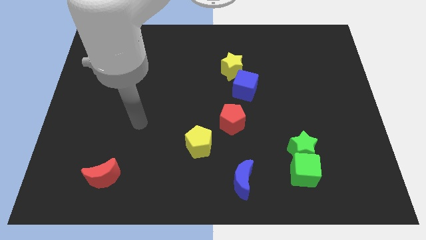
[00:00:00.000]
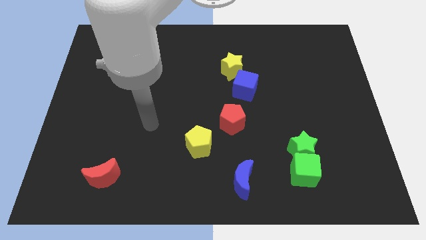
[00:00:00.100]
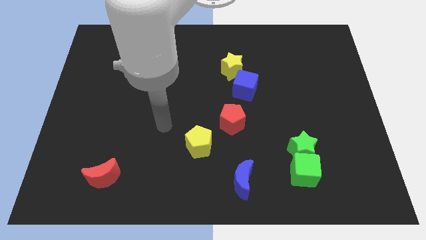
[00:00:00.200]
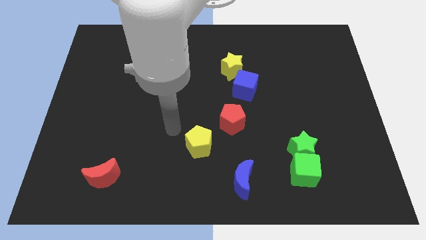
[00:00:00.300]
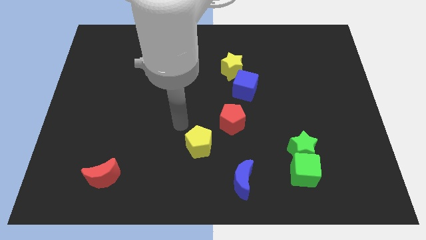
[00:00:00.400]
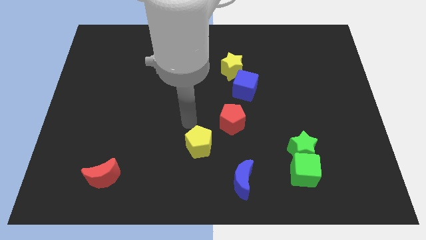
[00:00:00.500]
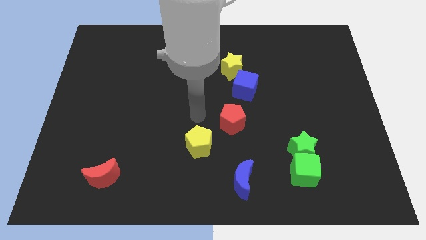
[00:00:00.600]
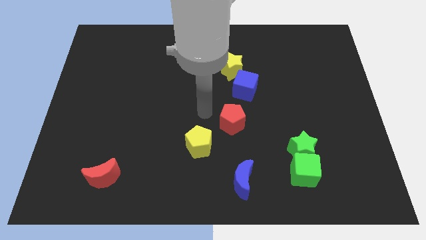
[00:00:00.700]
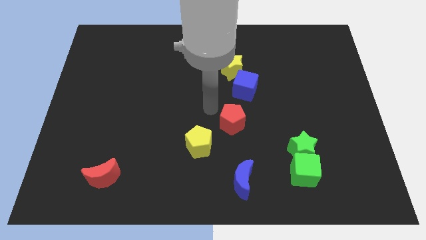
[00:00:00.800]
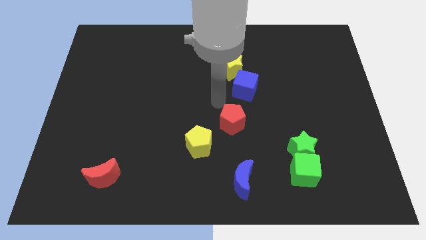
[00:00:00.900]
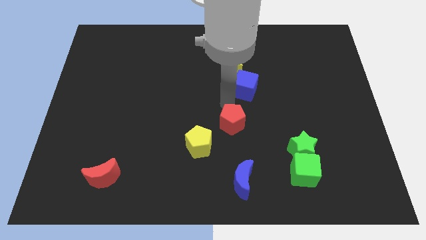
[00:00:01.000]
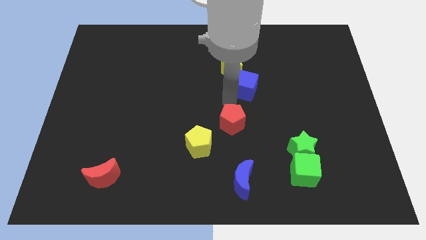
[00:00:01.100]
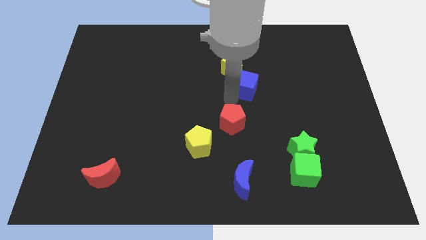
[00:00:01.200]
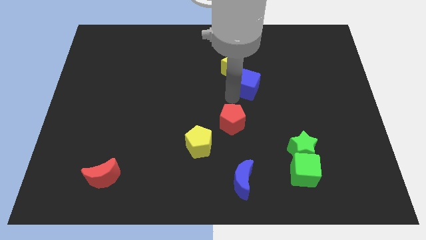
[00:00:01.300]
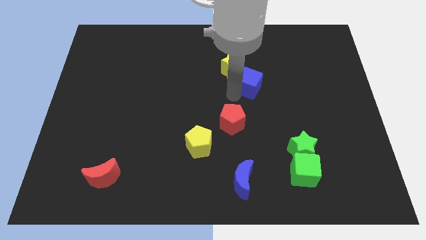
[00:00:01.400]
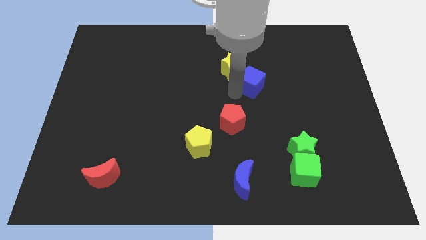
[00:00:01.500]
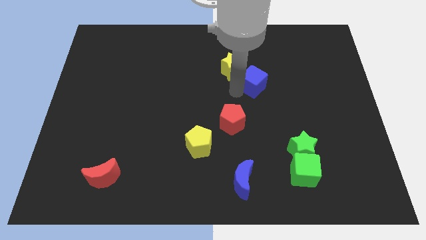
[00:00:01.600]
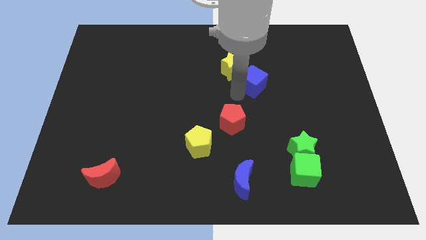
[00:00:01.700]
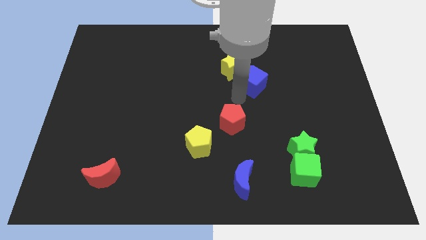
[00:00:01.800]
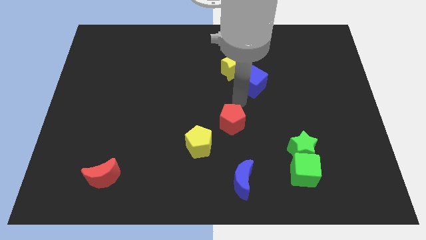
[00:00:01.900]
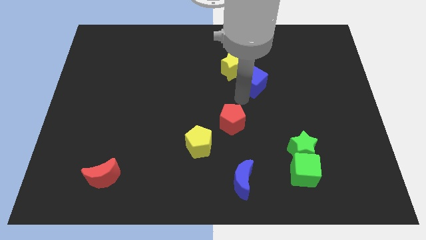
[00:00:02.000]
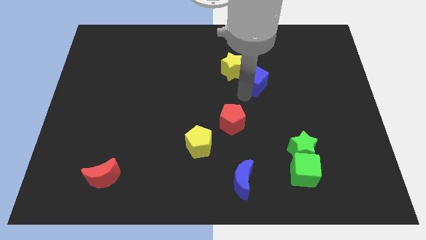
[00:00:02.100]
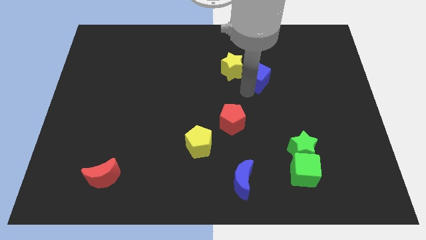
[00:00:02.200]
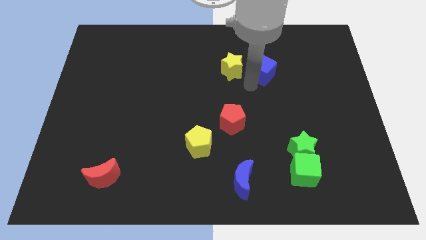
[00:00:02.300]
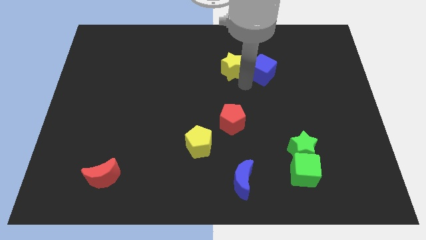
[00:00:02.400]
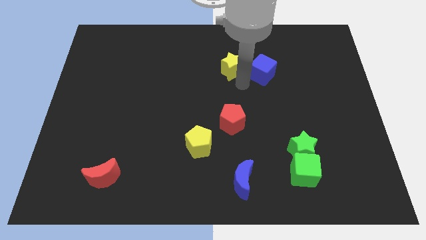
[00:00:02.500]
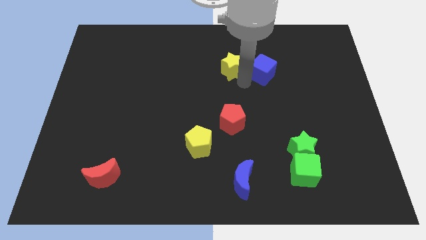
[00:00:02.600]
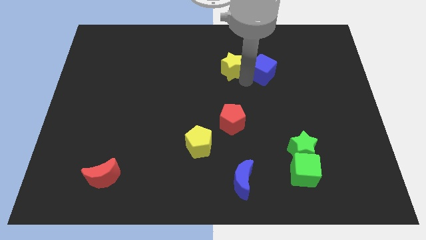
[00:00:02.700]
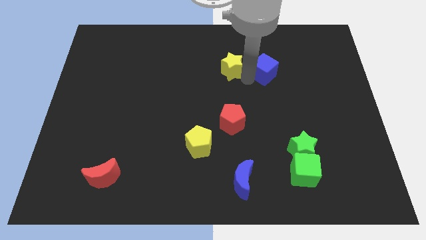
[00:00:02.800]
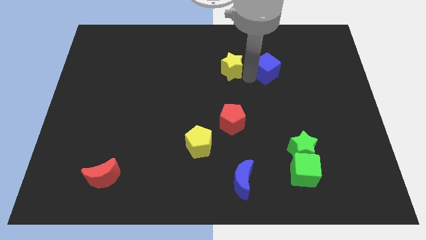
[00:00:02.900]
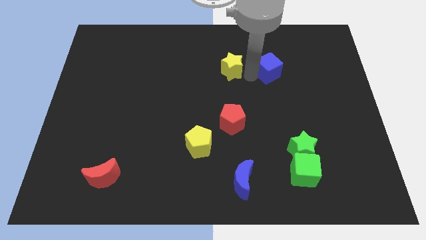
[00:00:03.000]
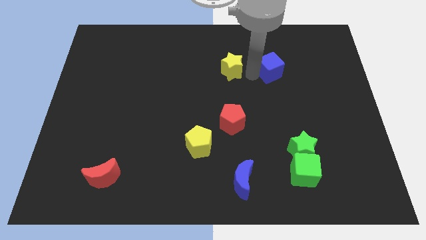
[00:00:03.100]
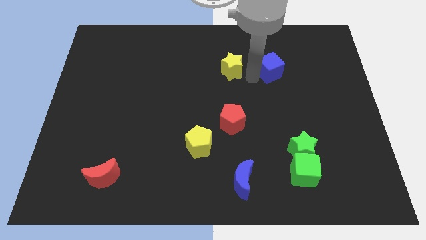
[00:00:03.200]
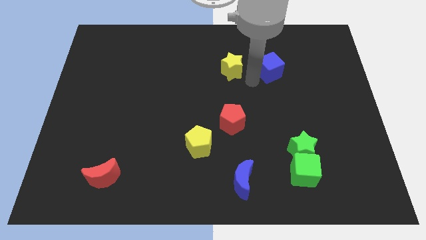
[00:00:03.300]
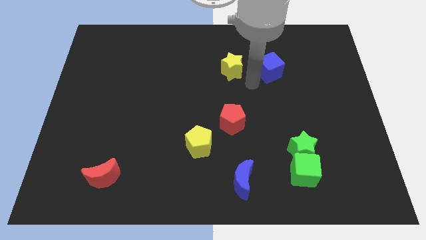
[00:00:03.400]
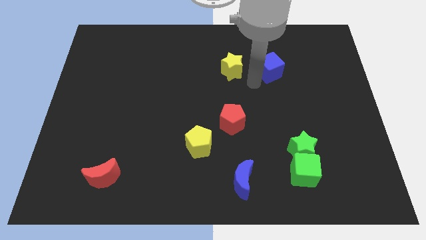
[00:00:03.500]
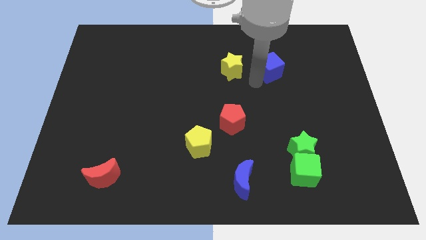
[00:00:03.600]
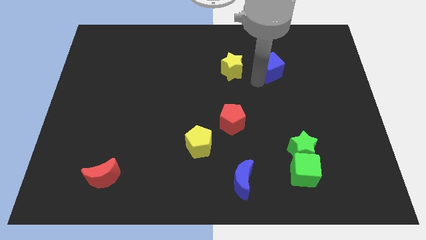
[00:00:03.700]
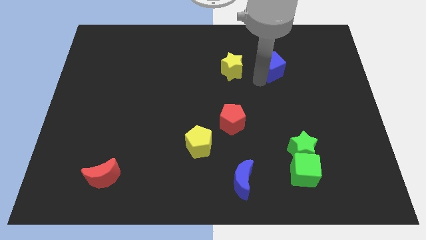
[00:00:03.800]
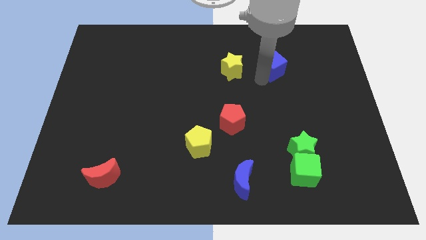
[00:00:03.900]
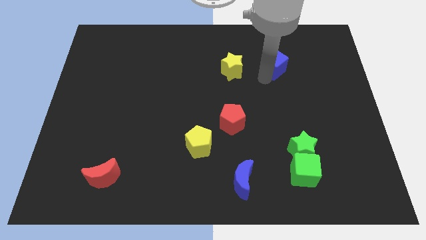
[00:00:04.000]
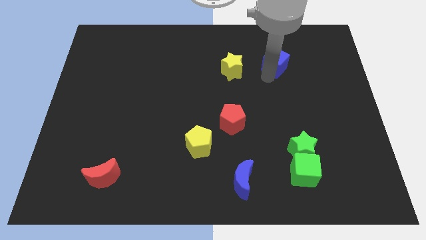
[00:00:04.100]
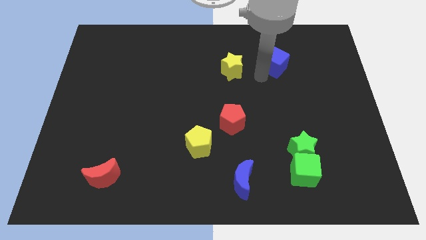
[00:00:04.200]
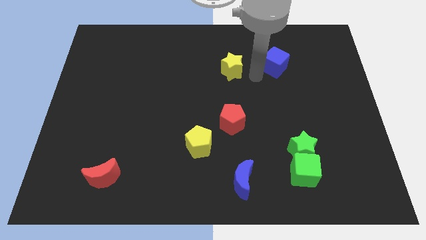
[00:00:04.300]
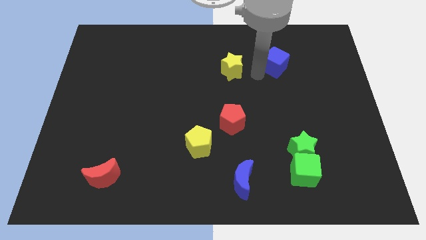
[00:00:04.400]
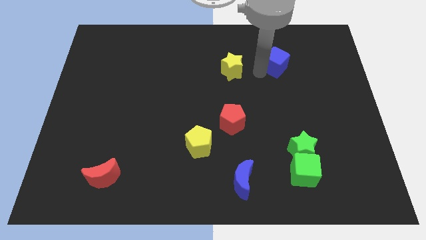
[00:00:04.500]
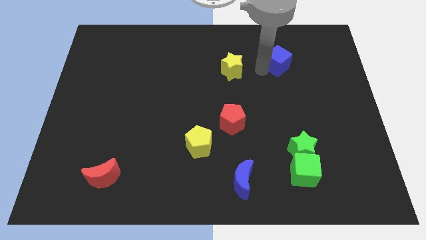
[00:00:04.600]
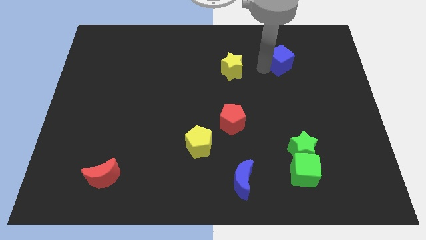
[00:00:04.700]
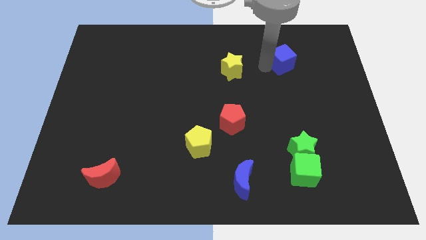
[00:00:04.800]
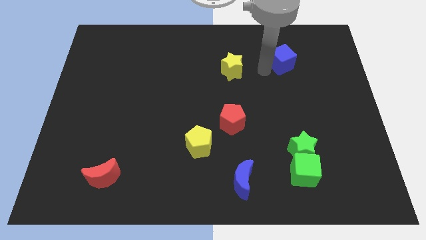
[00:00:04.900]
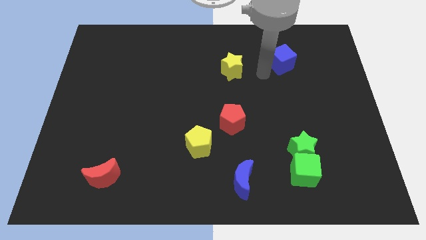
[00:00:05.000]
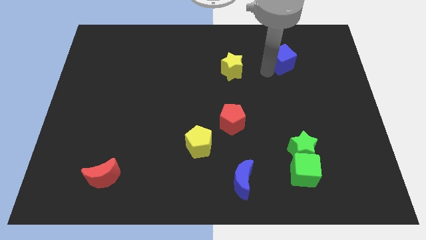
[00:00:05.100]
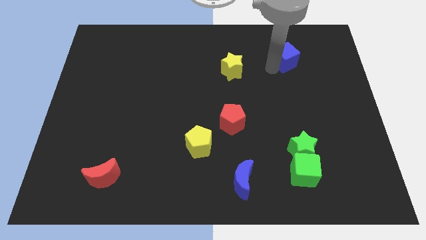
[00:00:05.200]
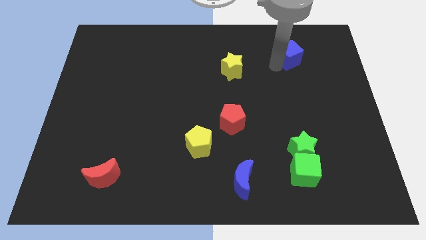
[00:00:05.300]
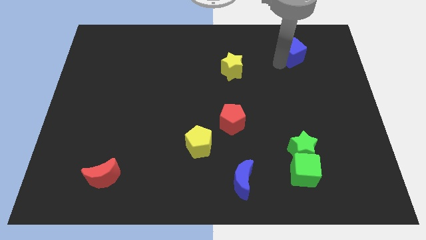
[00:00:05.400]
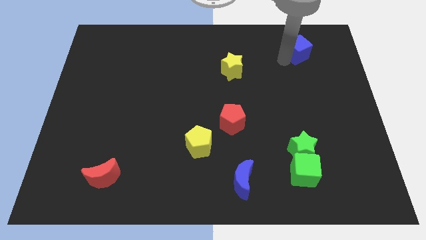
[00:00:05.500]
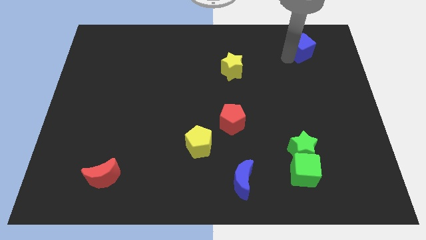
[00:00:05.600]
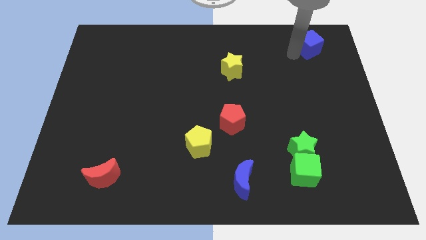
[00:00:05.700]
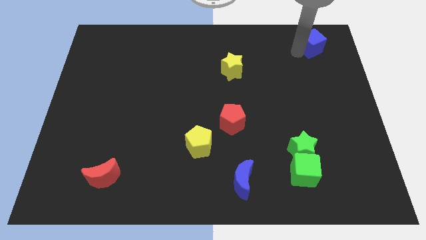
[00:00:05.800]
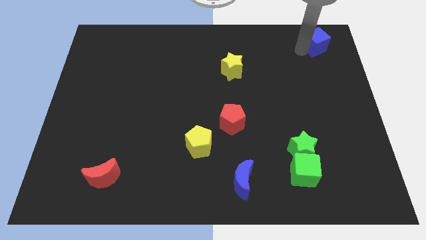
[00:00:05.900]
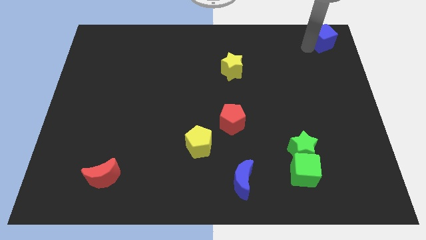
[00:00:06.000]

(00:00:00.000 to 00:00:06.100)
slide the blue cube to the top right corner
